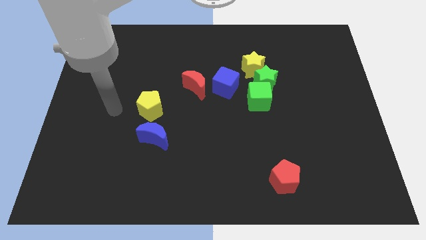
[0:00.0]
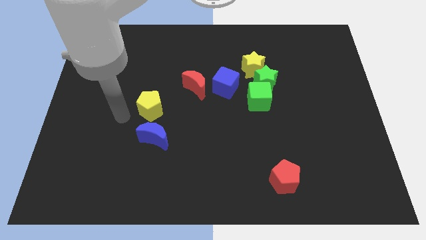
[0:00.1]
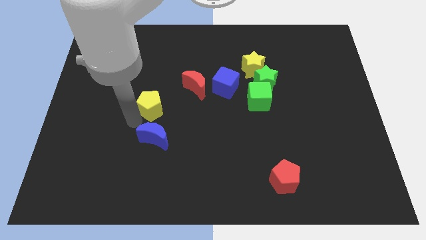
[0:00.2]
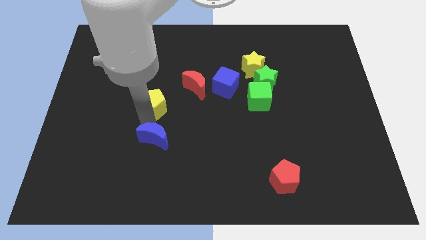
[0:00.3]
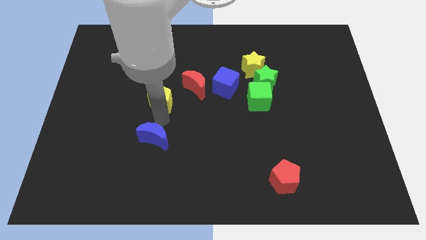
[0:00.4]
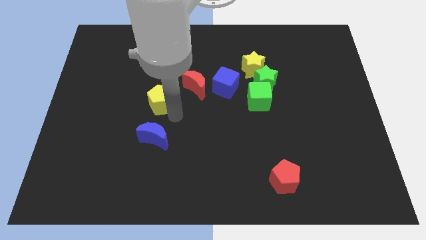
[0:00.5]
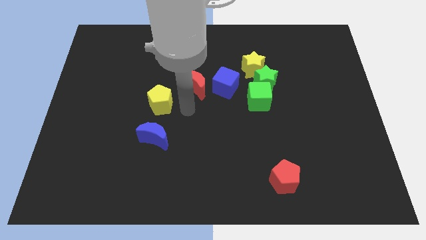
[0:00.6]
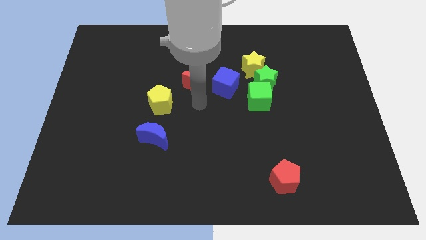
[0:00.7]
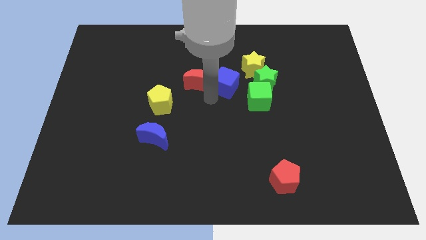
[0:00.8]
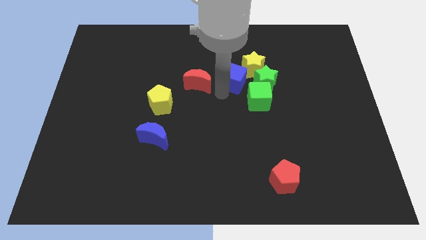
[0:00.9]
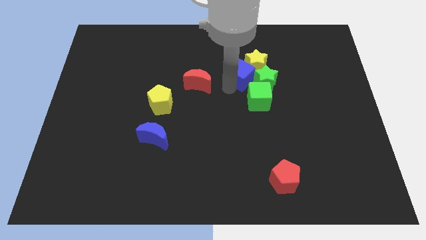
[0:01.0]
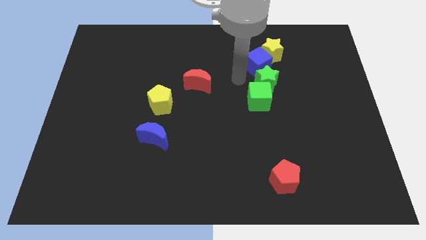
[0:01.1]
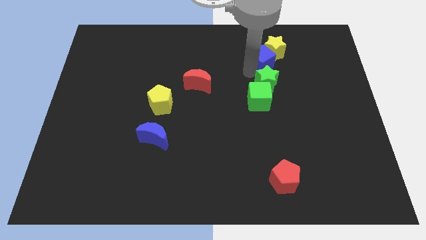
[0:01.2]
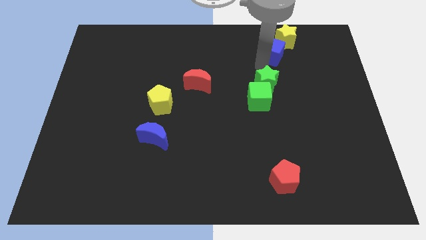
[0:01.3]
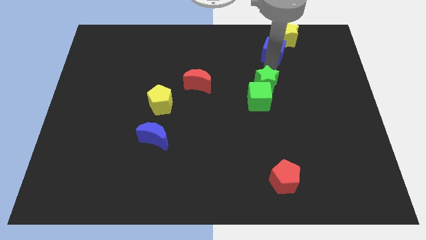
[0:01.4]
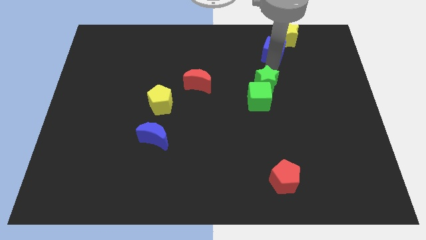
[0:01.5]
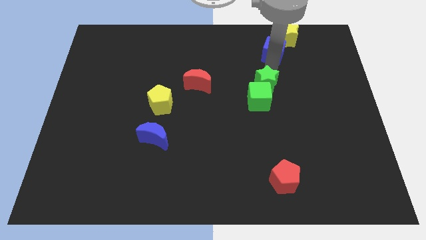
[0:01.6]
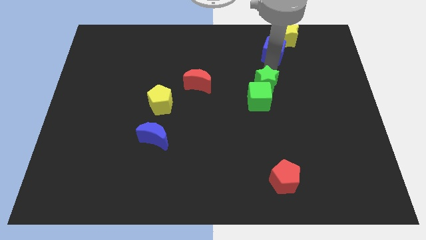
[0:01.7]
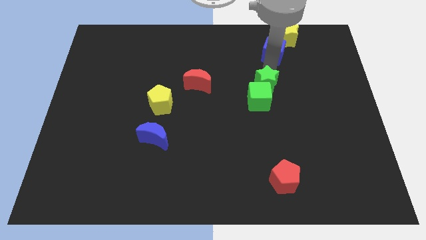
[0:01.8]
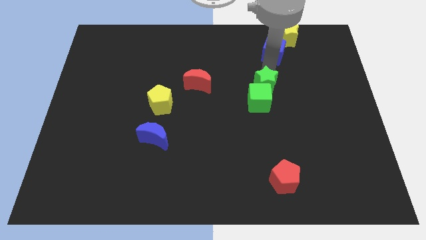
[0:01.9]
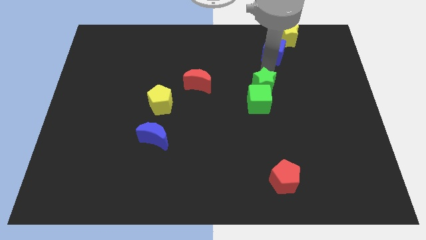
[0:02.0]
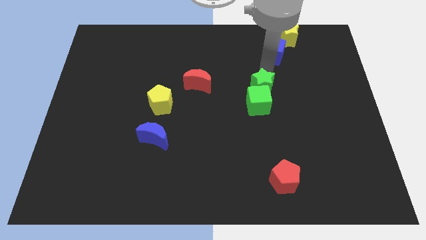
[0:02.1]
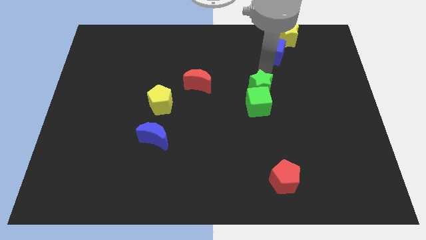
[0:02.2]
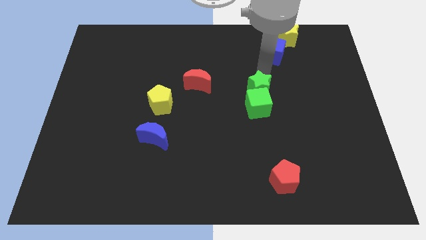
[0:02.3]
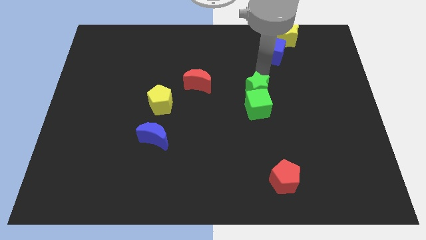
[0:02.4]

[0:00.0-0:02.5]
pull the green star apart from the group of blocks

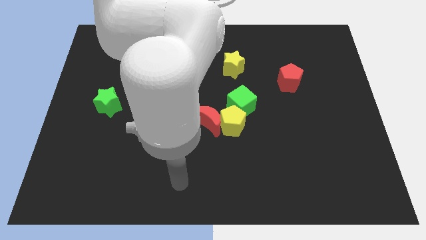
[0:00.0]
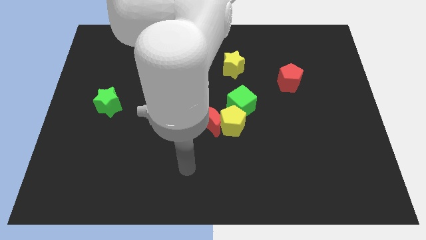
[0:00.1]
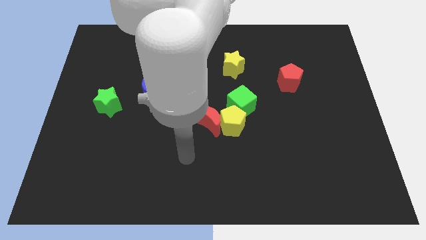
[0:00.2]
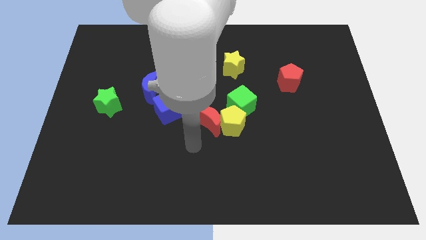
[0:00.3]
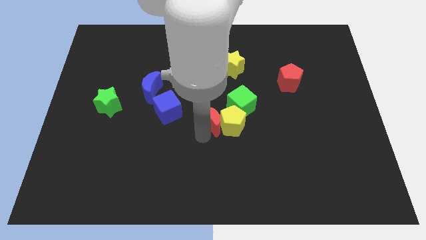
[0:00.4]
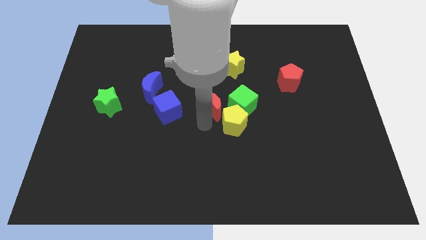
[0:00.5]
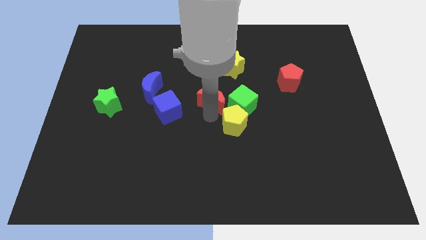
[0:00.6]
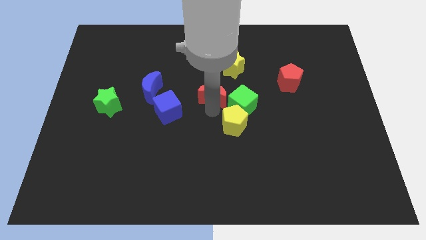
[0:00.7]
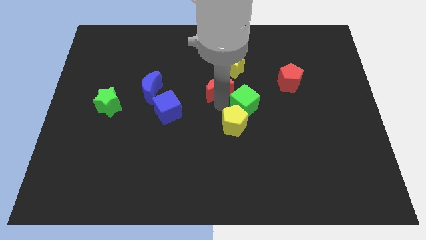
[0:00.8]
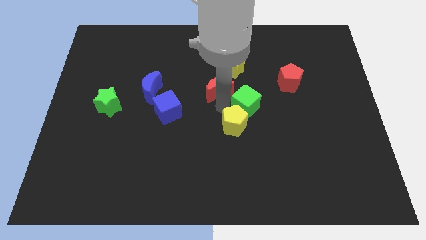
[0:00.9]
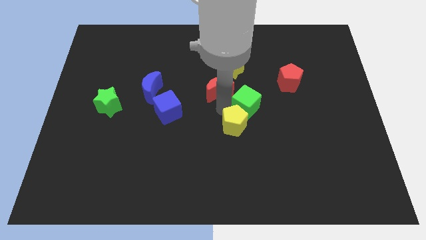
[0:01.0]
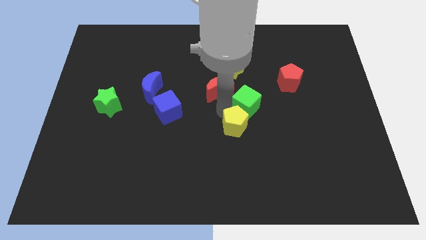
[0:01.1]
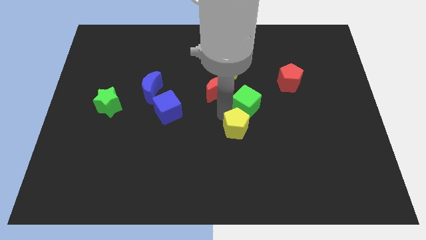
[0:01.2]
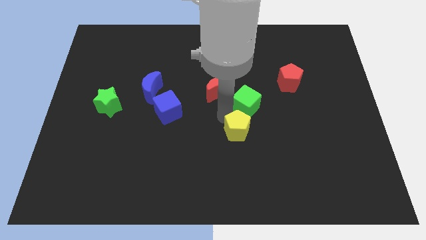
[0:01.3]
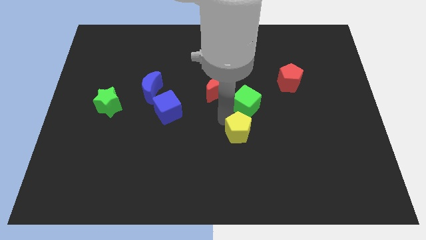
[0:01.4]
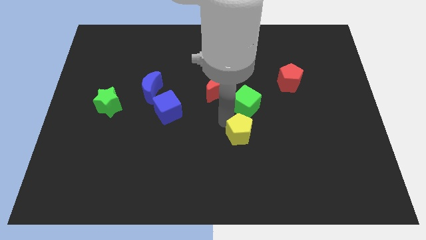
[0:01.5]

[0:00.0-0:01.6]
separate the yellow pentagon from the red moon and green cube

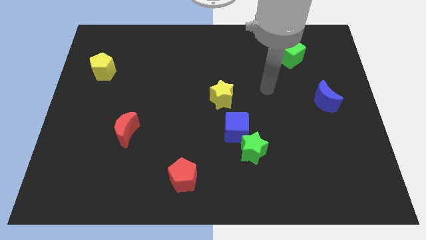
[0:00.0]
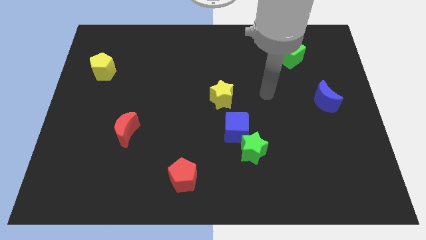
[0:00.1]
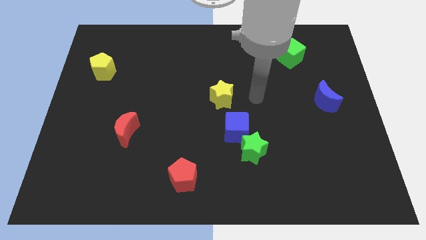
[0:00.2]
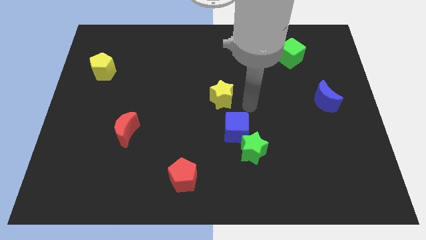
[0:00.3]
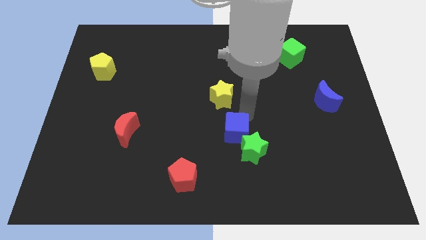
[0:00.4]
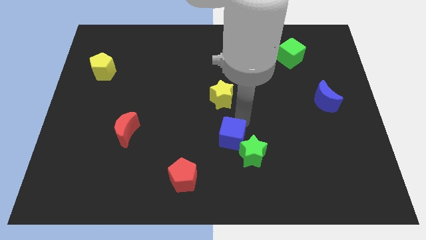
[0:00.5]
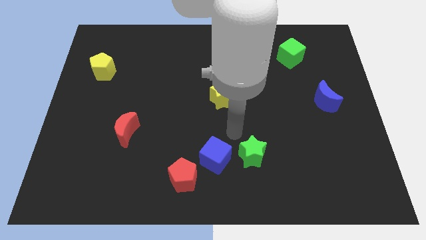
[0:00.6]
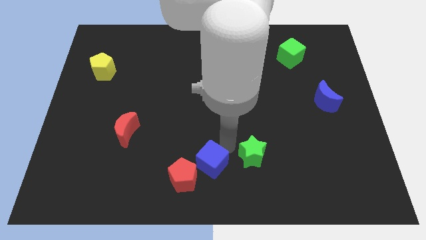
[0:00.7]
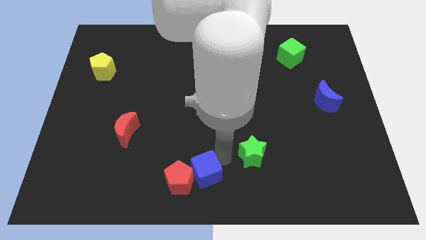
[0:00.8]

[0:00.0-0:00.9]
pull the green star apart from the blue cube

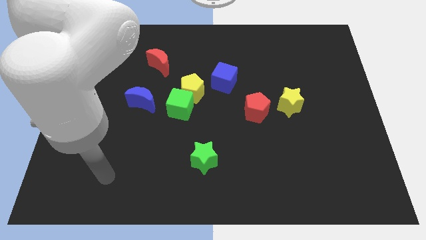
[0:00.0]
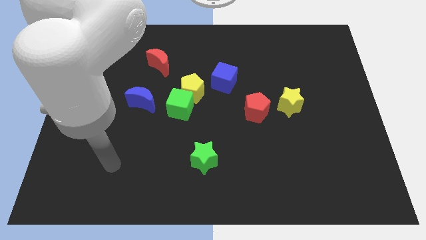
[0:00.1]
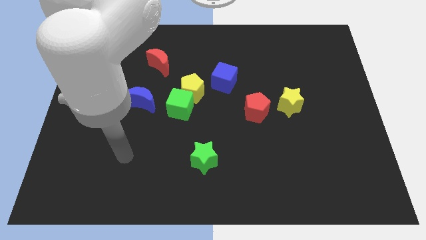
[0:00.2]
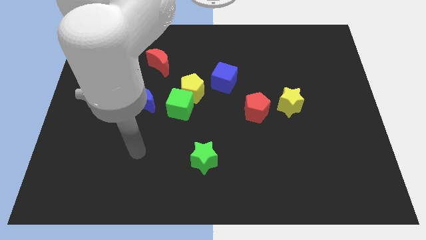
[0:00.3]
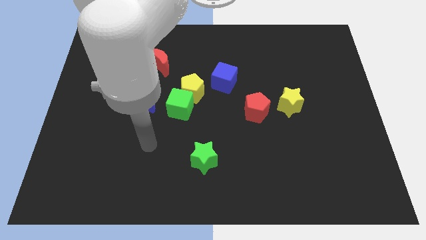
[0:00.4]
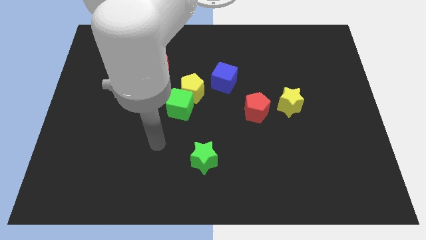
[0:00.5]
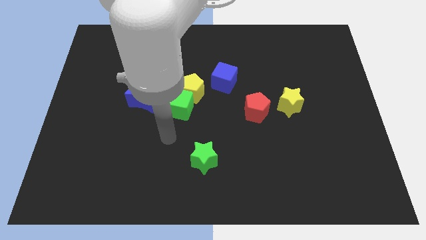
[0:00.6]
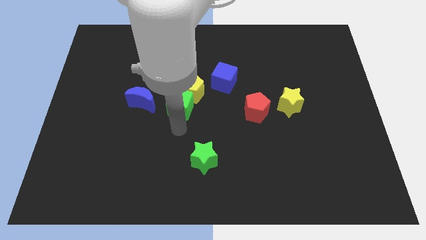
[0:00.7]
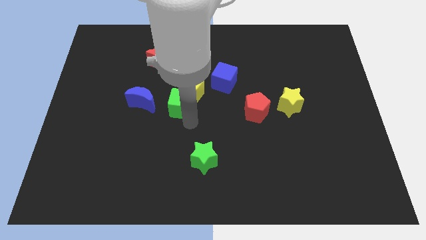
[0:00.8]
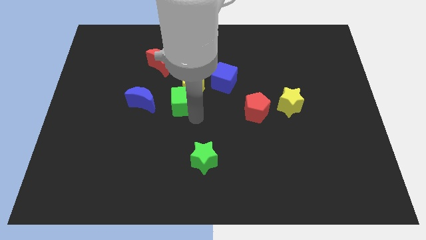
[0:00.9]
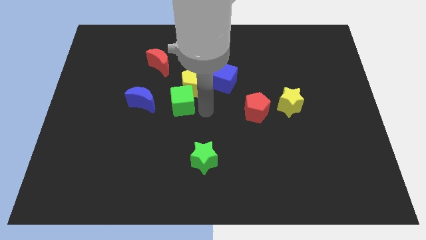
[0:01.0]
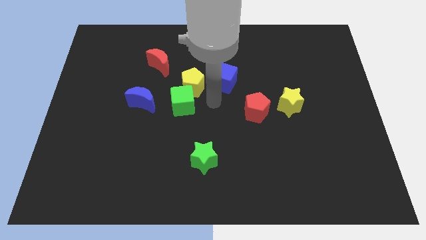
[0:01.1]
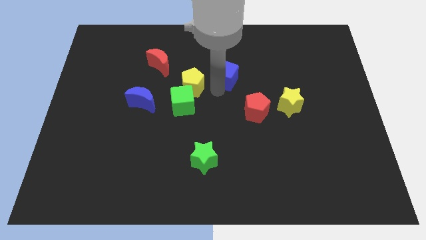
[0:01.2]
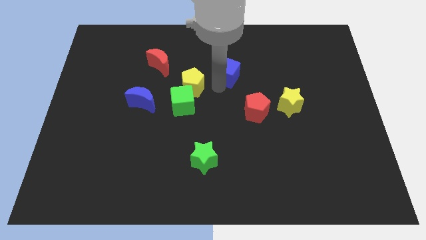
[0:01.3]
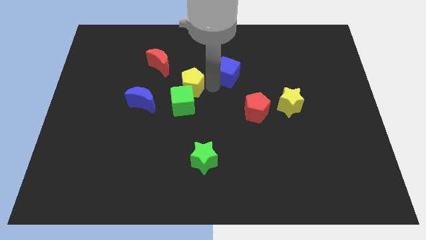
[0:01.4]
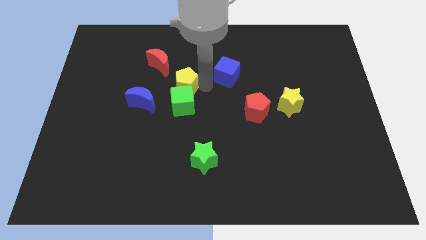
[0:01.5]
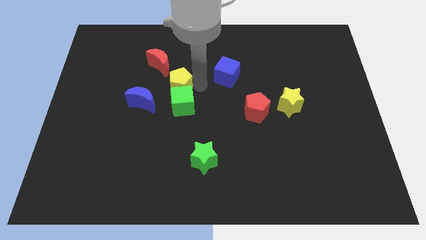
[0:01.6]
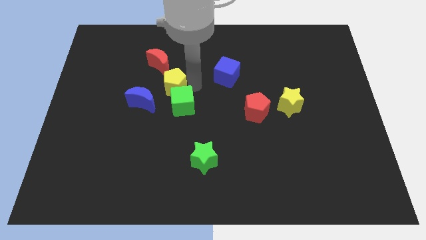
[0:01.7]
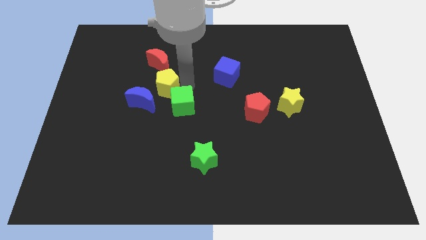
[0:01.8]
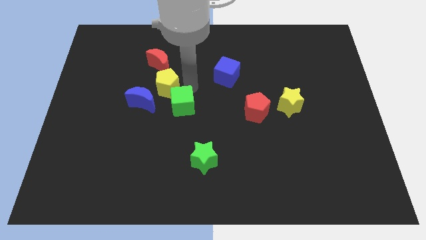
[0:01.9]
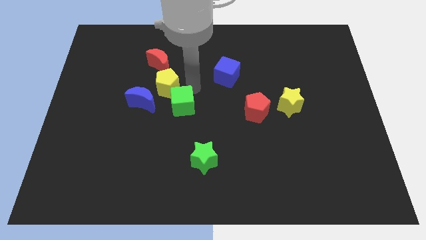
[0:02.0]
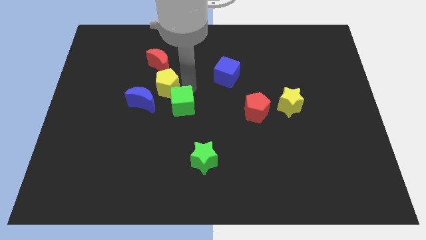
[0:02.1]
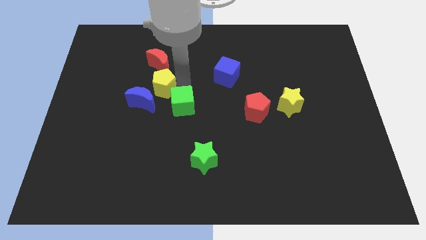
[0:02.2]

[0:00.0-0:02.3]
pull the yellow pentagon apart from the green cube and blue cube

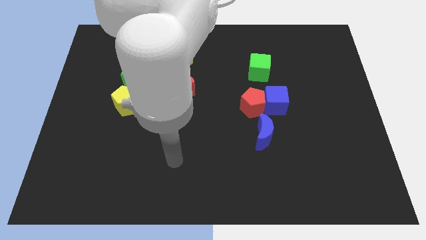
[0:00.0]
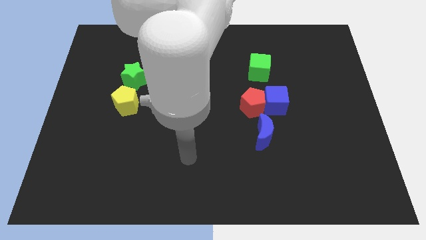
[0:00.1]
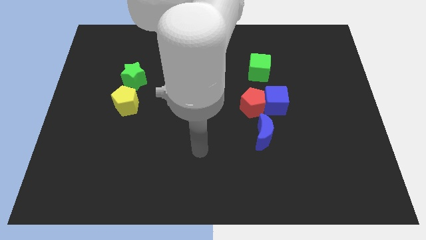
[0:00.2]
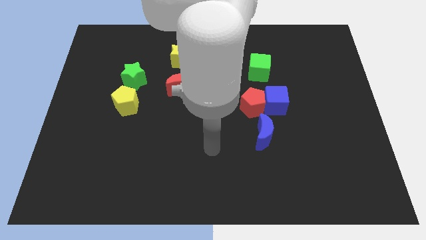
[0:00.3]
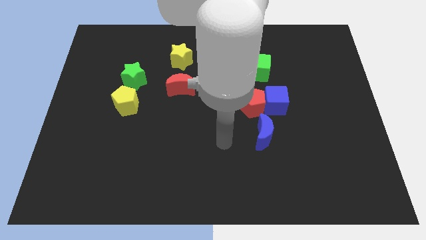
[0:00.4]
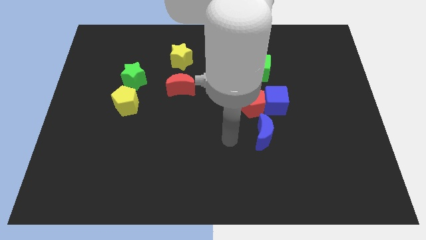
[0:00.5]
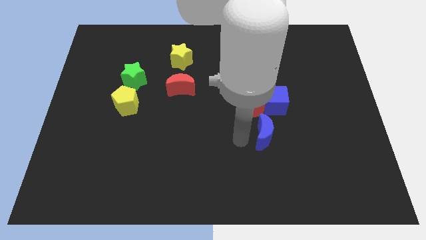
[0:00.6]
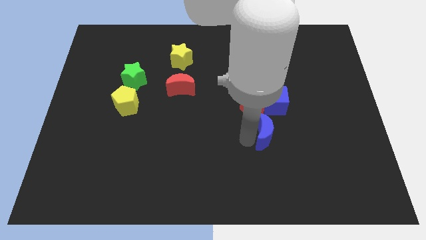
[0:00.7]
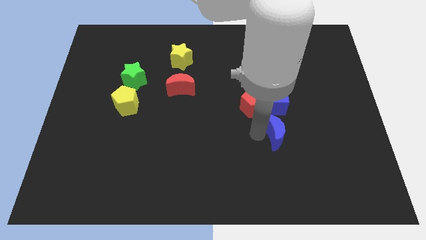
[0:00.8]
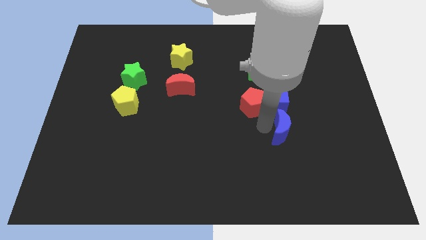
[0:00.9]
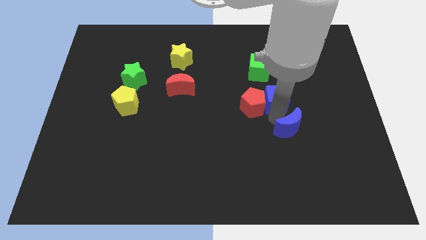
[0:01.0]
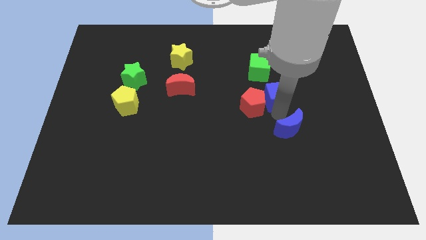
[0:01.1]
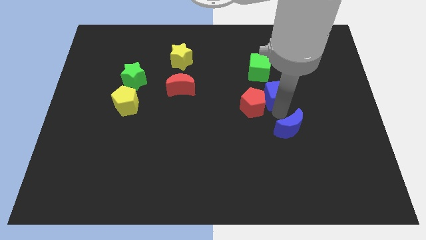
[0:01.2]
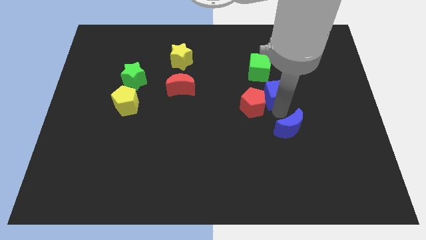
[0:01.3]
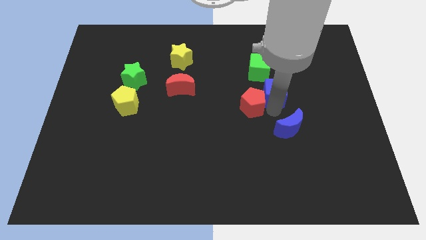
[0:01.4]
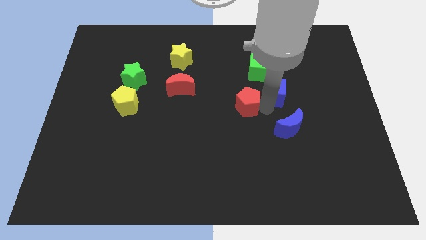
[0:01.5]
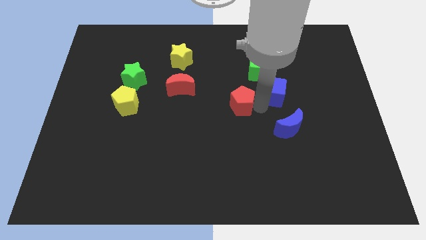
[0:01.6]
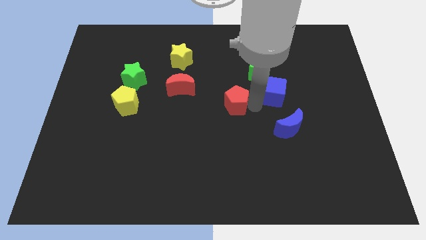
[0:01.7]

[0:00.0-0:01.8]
separate the red pentagon from the blue cube and blue moon

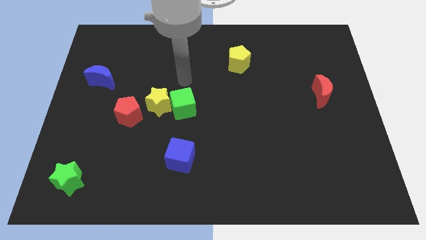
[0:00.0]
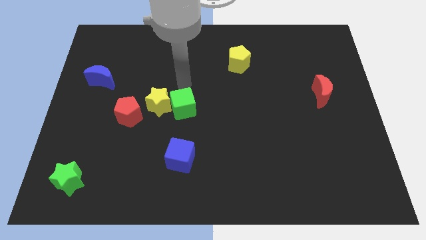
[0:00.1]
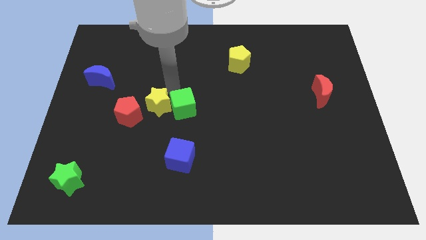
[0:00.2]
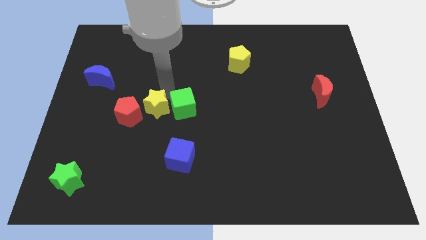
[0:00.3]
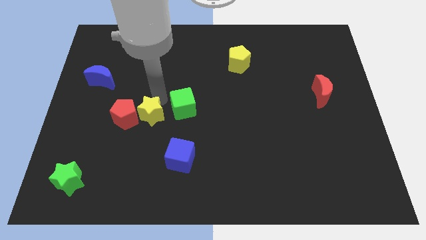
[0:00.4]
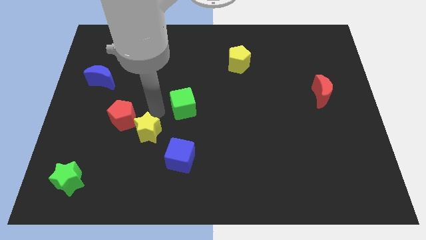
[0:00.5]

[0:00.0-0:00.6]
move the green cube away from the yellow star
